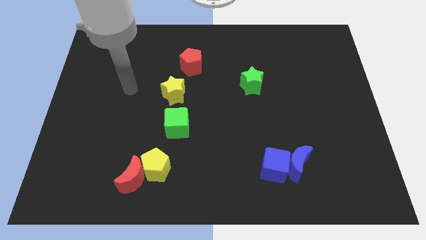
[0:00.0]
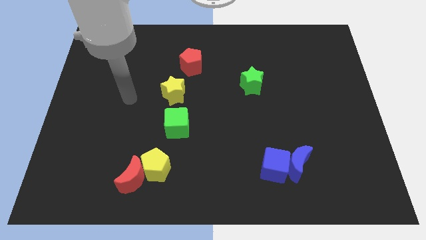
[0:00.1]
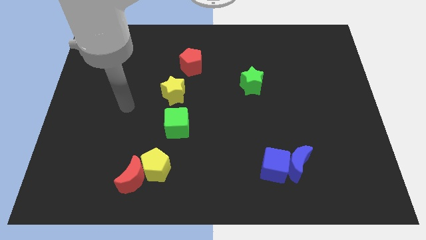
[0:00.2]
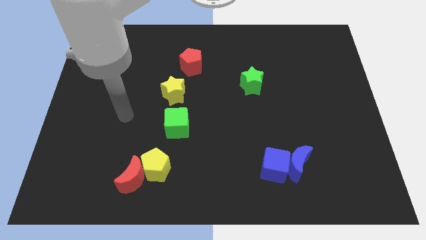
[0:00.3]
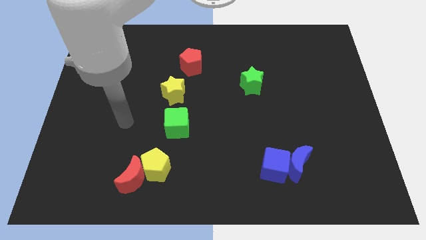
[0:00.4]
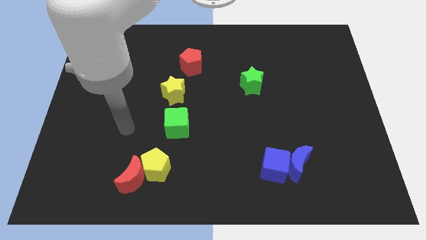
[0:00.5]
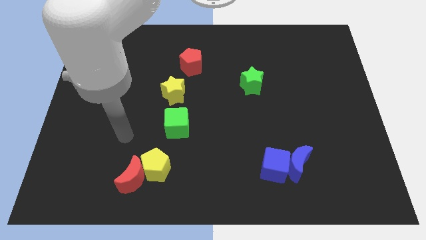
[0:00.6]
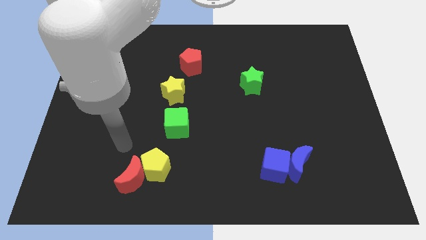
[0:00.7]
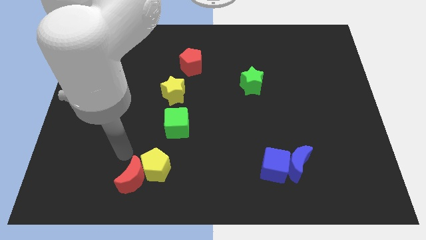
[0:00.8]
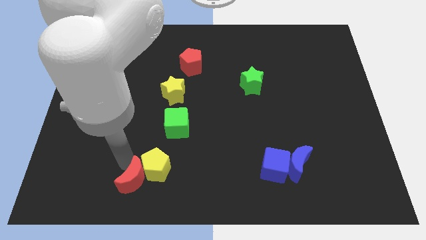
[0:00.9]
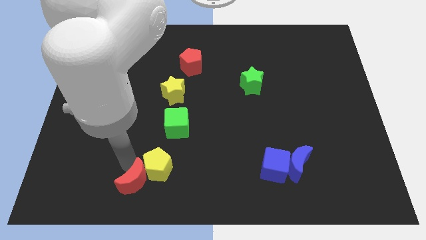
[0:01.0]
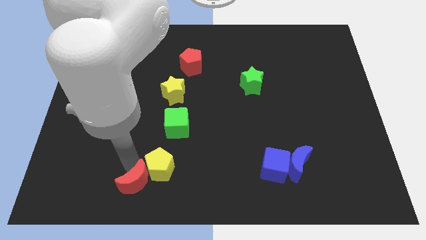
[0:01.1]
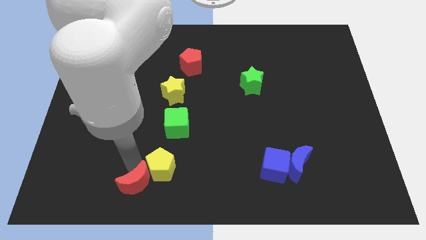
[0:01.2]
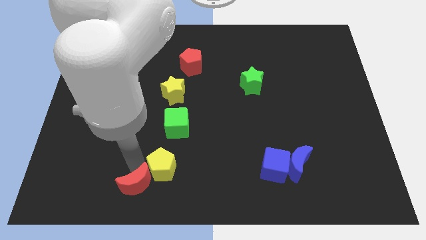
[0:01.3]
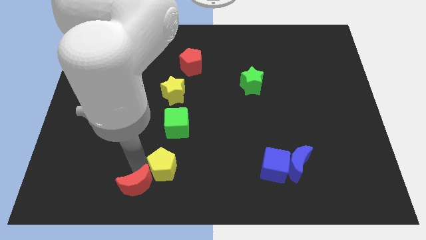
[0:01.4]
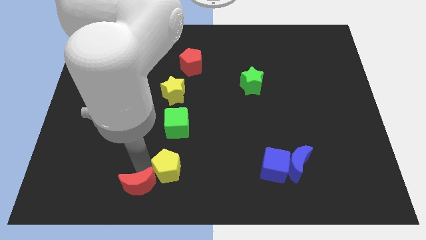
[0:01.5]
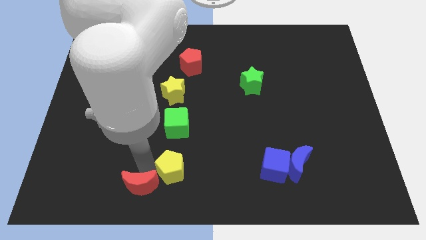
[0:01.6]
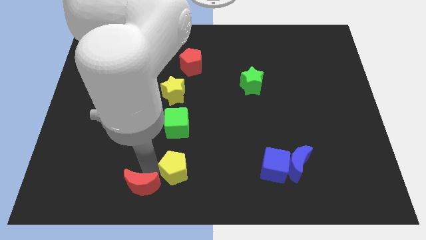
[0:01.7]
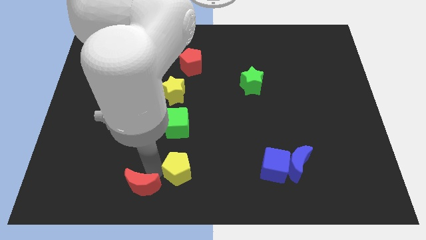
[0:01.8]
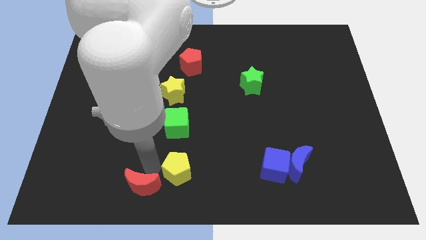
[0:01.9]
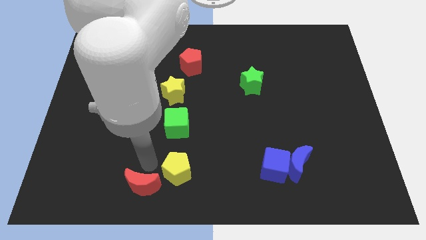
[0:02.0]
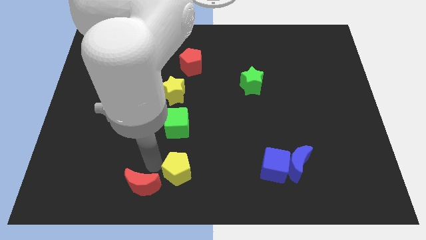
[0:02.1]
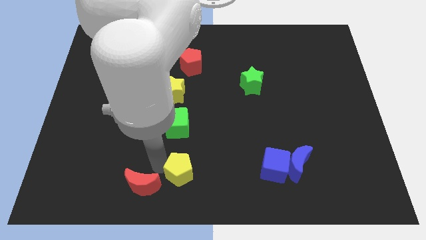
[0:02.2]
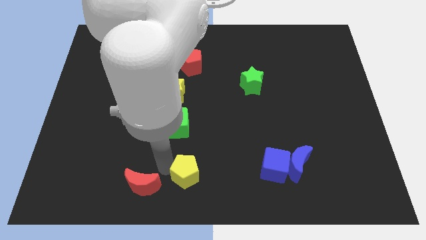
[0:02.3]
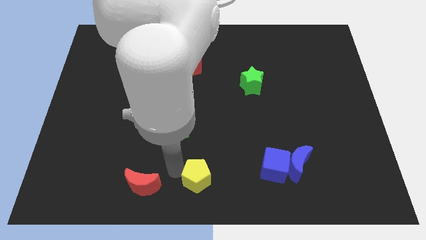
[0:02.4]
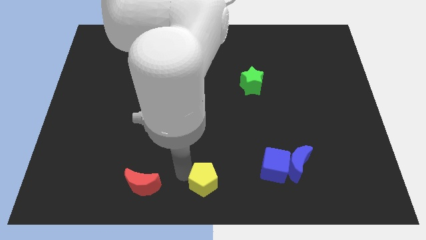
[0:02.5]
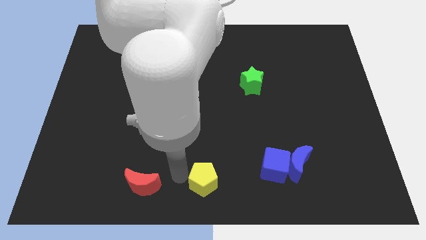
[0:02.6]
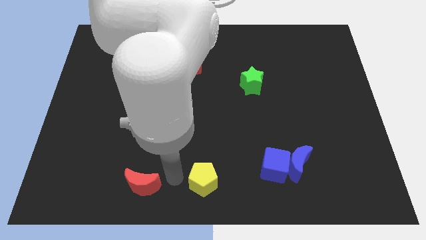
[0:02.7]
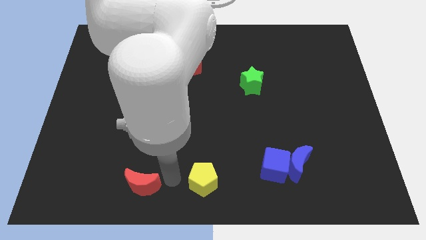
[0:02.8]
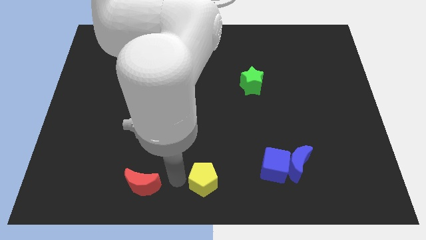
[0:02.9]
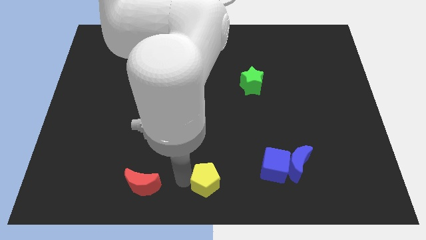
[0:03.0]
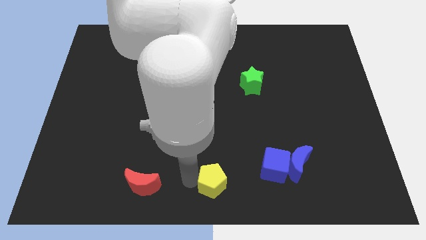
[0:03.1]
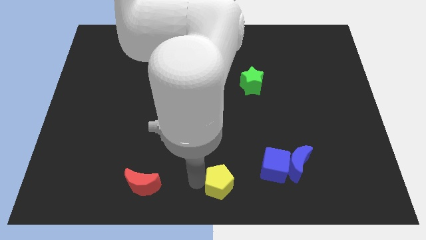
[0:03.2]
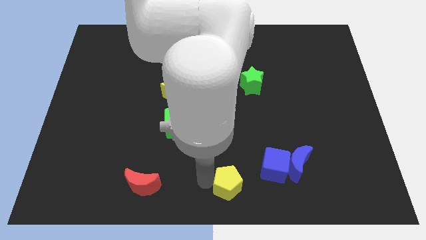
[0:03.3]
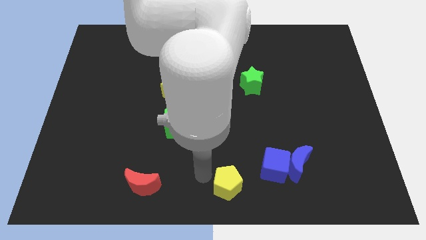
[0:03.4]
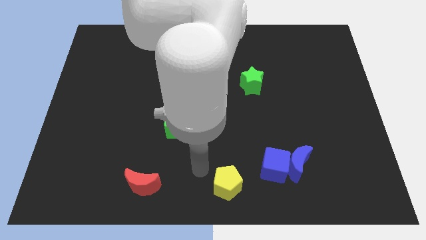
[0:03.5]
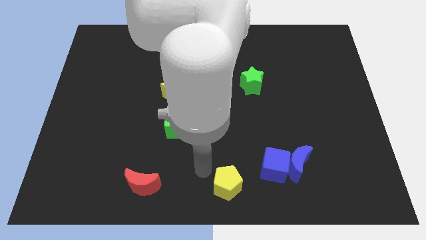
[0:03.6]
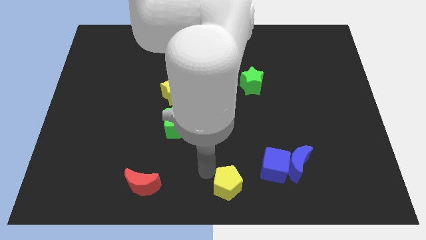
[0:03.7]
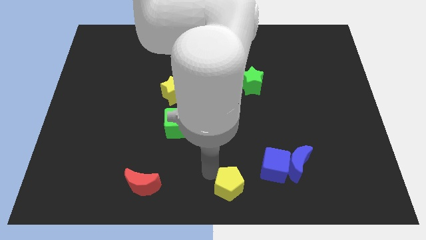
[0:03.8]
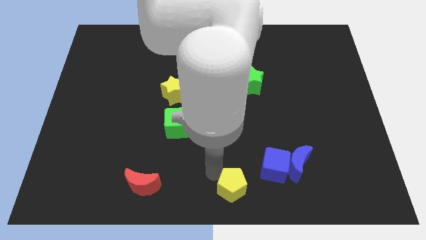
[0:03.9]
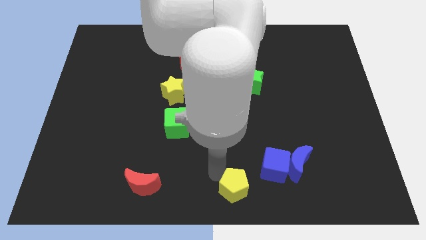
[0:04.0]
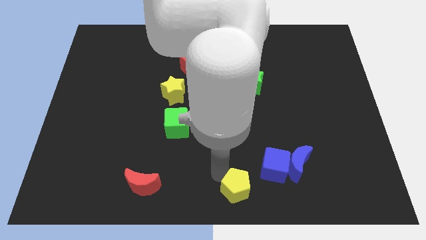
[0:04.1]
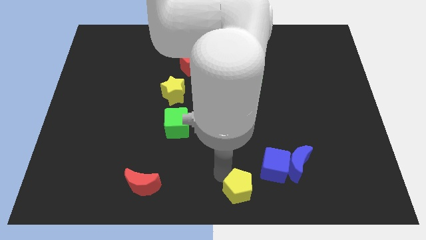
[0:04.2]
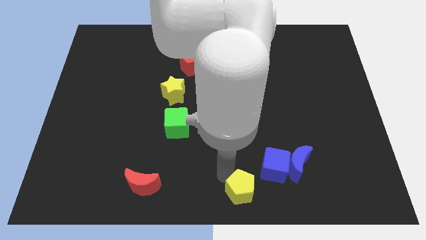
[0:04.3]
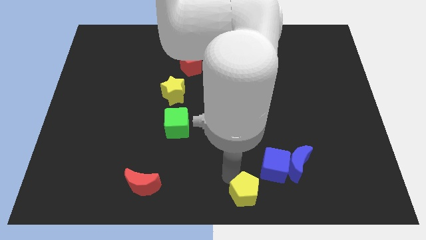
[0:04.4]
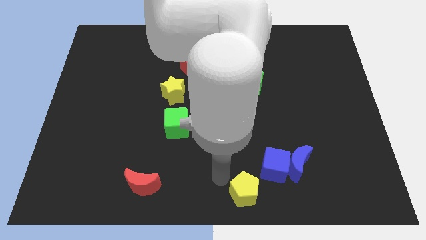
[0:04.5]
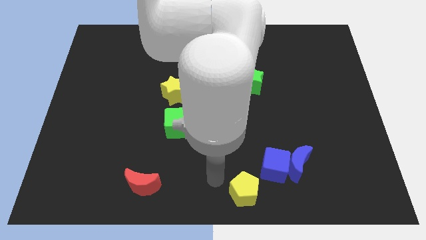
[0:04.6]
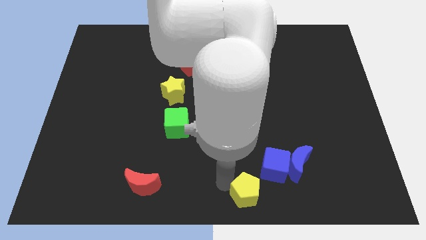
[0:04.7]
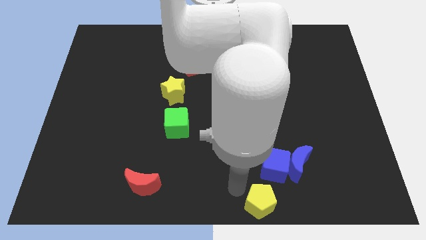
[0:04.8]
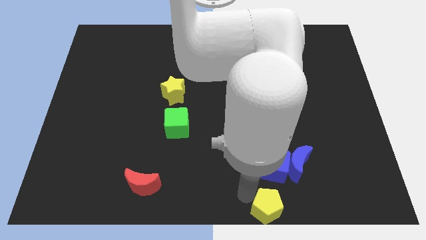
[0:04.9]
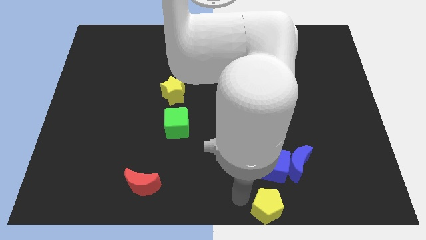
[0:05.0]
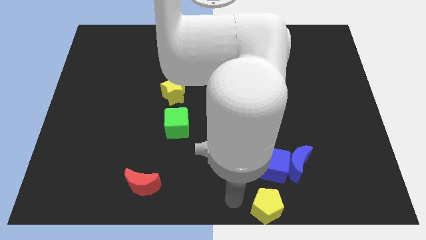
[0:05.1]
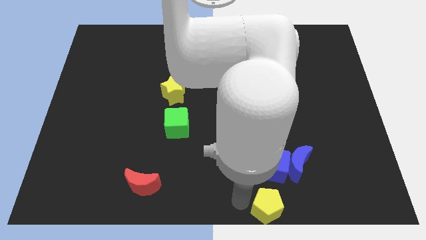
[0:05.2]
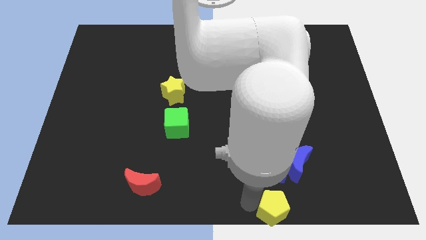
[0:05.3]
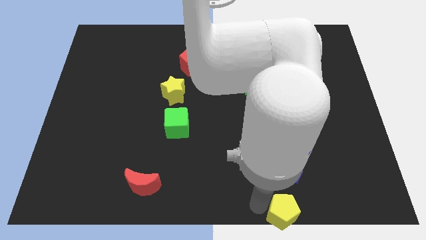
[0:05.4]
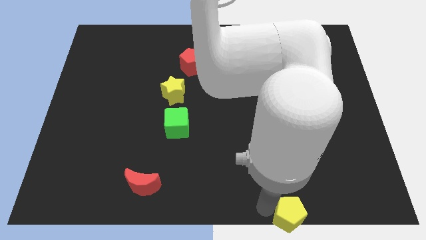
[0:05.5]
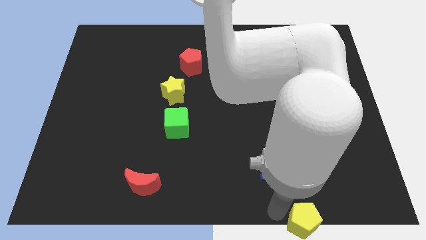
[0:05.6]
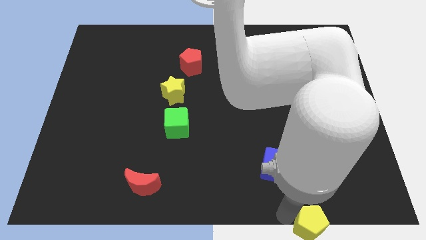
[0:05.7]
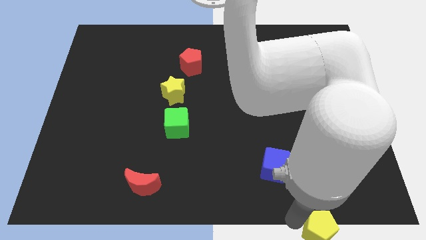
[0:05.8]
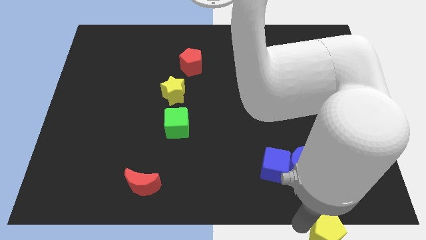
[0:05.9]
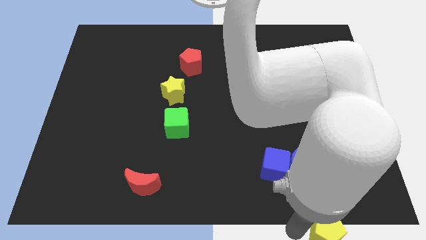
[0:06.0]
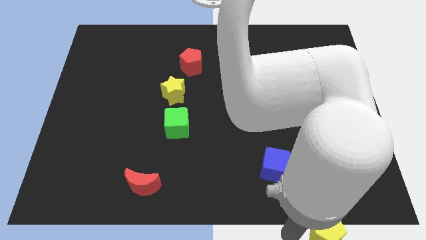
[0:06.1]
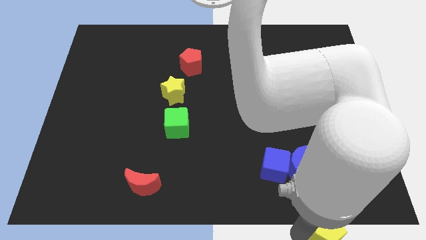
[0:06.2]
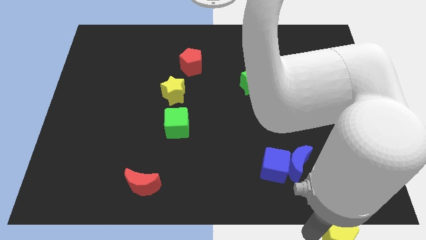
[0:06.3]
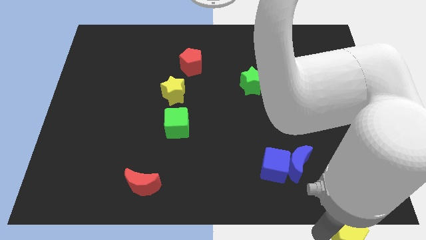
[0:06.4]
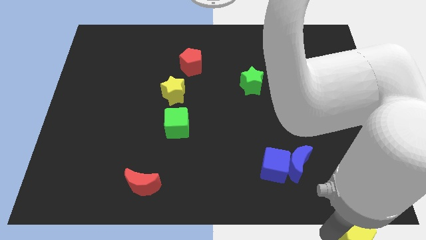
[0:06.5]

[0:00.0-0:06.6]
put the yellow pentagon to the bottom right corner
